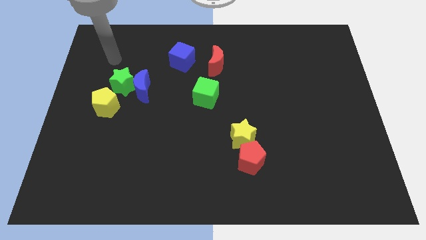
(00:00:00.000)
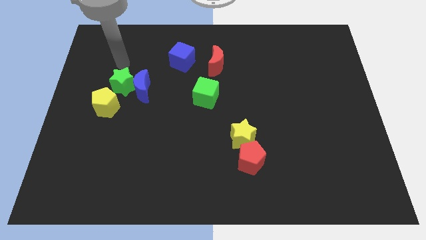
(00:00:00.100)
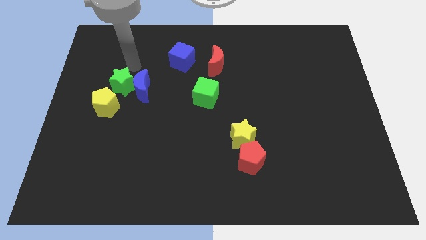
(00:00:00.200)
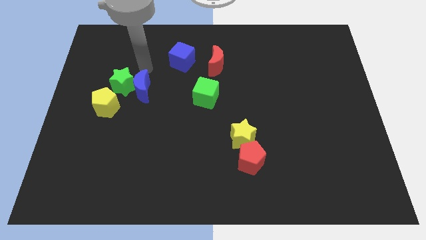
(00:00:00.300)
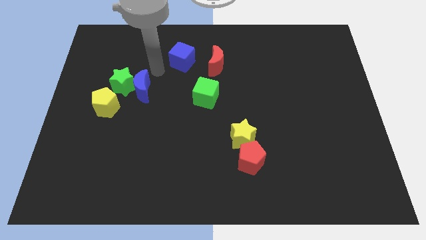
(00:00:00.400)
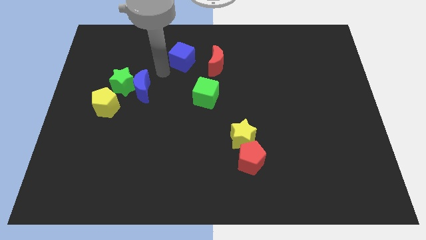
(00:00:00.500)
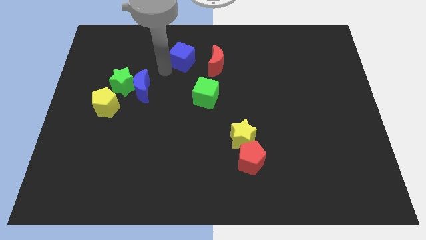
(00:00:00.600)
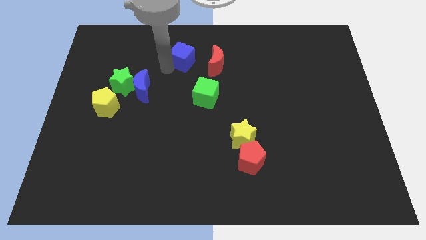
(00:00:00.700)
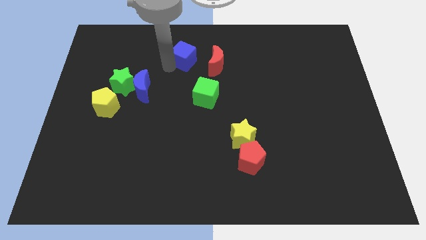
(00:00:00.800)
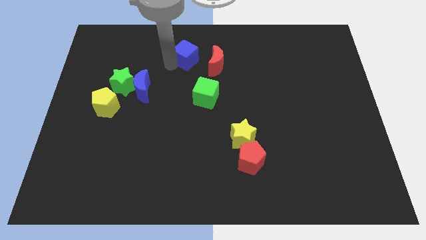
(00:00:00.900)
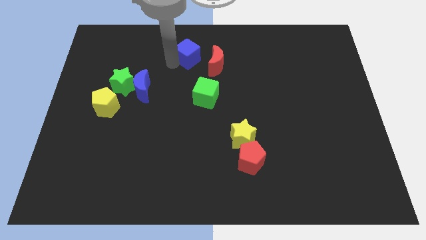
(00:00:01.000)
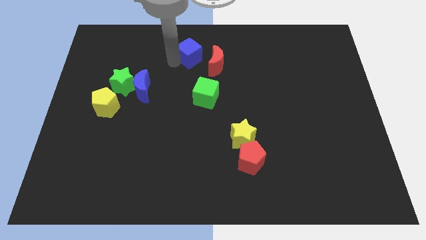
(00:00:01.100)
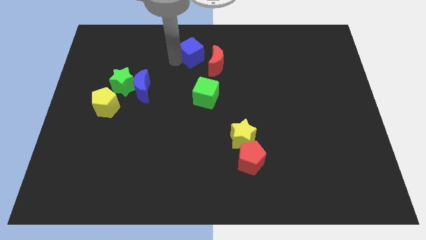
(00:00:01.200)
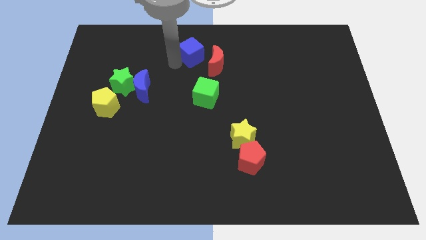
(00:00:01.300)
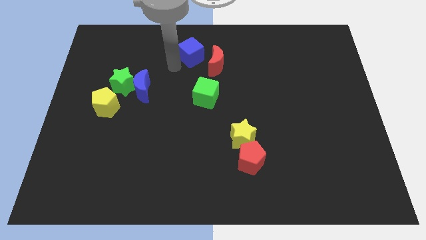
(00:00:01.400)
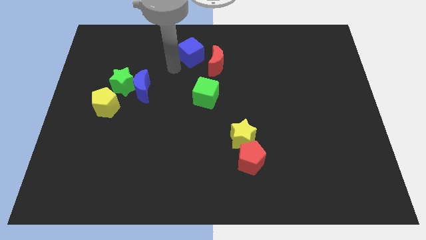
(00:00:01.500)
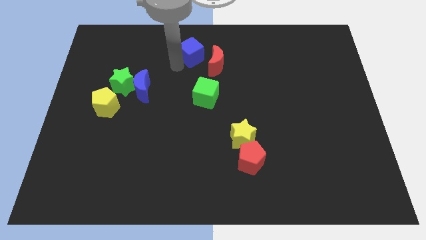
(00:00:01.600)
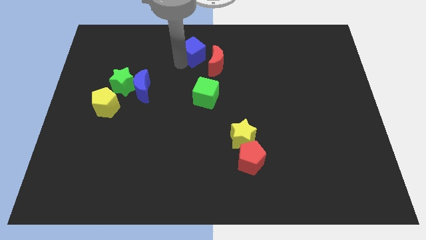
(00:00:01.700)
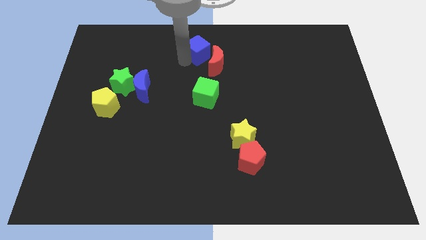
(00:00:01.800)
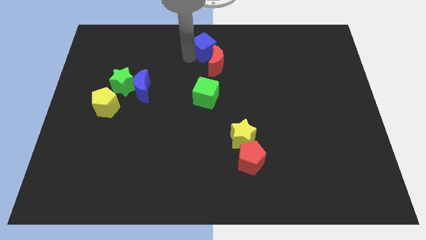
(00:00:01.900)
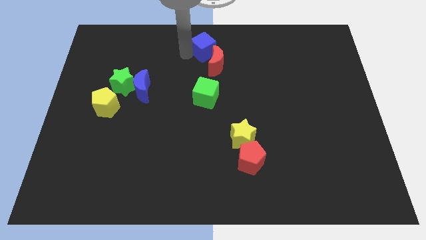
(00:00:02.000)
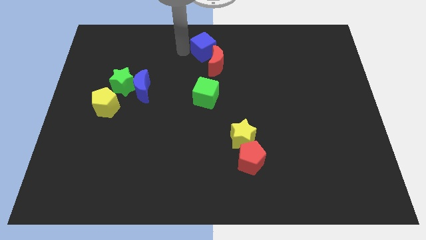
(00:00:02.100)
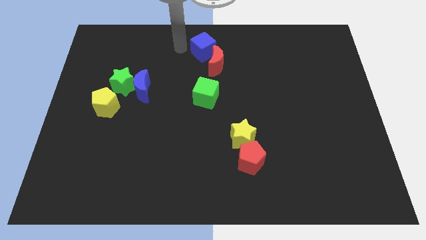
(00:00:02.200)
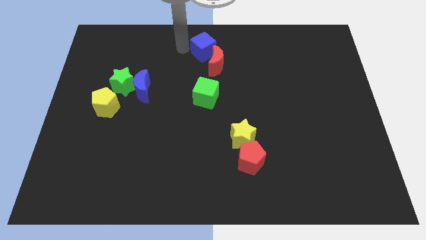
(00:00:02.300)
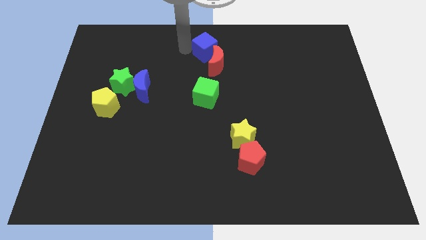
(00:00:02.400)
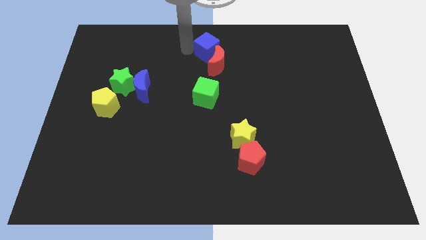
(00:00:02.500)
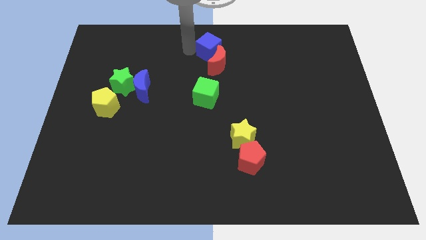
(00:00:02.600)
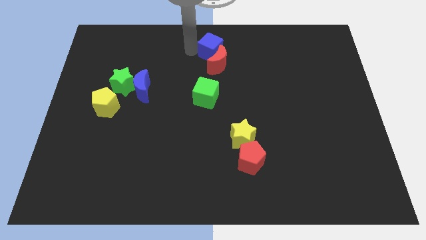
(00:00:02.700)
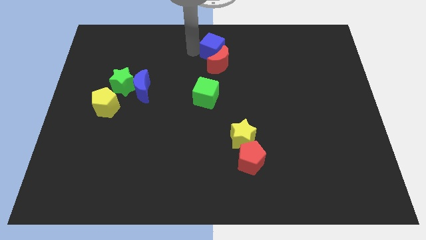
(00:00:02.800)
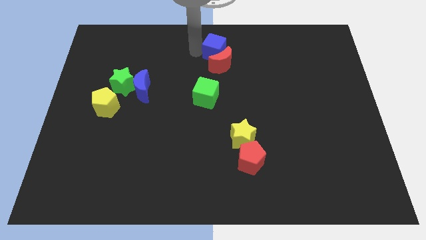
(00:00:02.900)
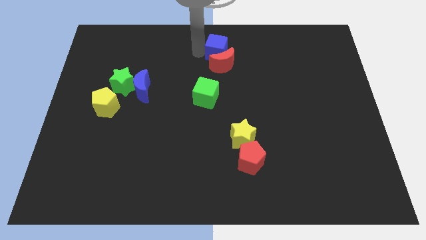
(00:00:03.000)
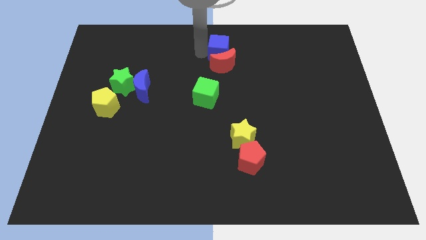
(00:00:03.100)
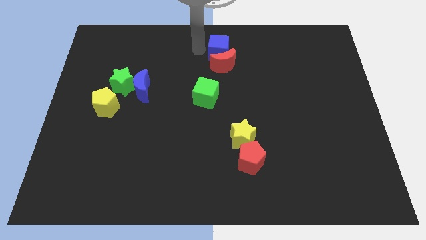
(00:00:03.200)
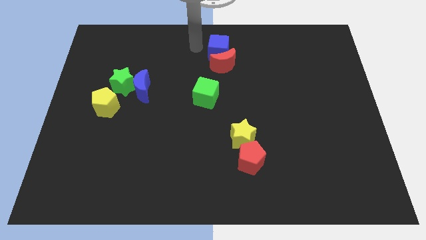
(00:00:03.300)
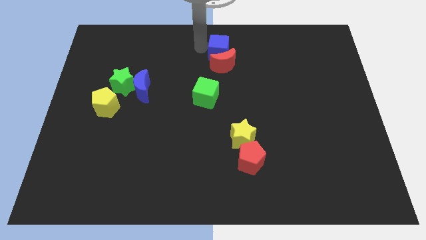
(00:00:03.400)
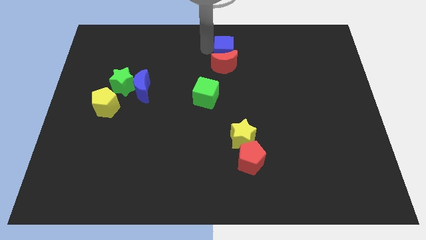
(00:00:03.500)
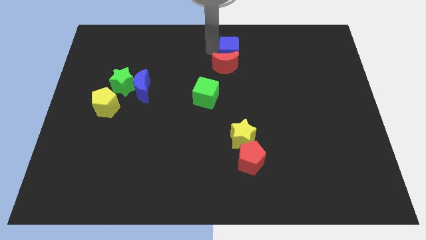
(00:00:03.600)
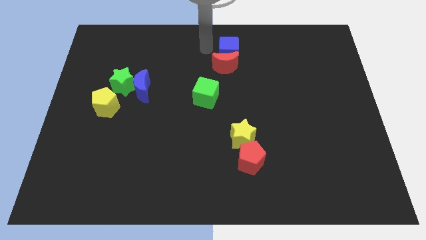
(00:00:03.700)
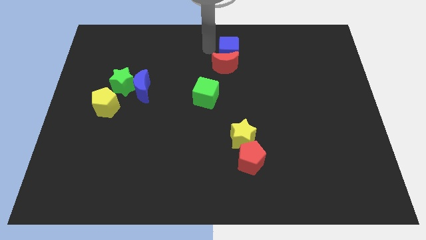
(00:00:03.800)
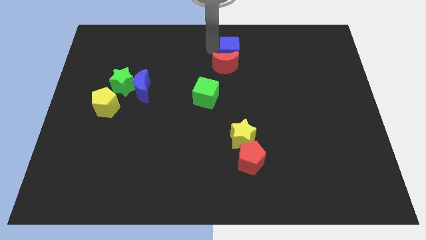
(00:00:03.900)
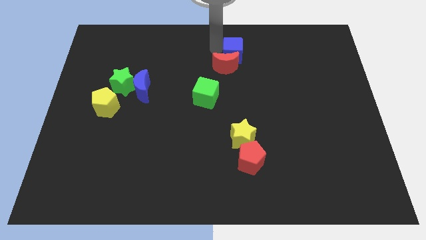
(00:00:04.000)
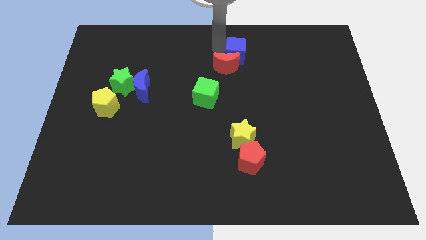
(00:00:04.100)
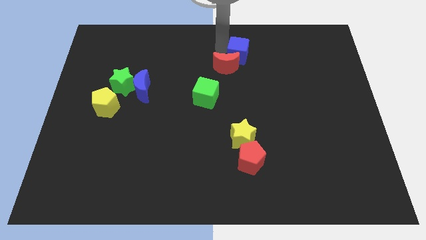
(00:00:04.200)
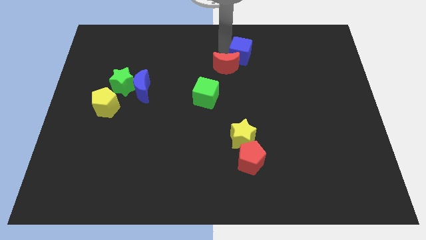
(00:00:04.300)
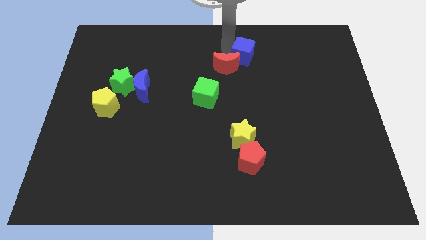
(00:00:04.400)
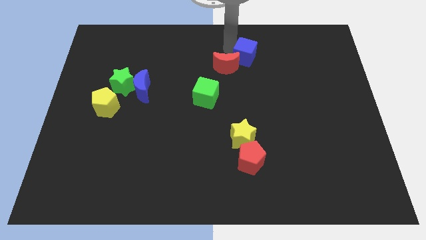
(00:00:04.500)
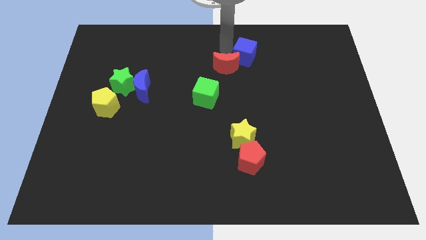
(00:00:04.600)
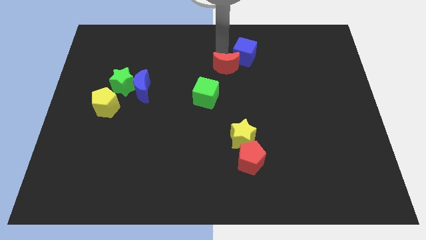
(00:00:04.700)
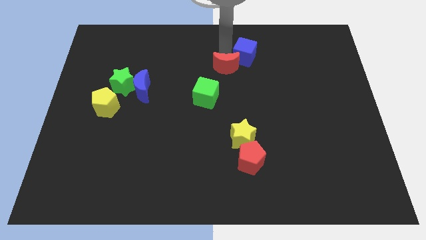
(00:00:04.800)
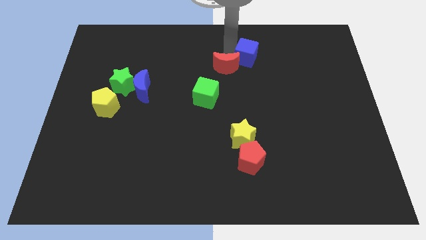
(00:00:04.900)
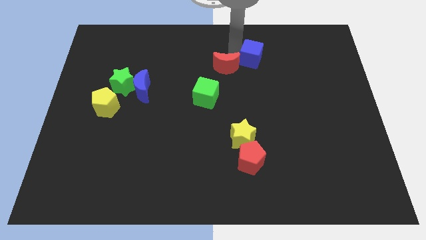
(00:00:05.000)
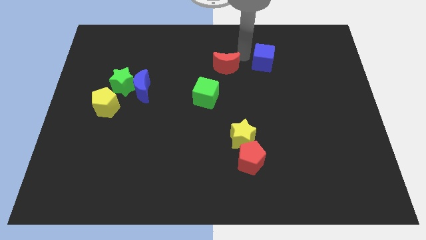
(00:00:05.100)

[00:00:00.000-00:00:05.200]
push the blue cube to the right

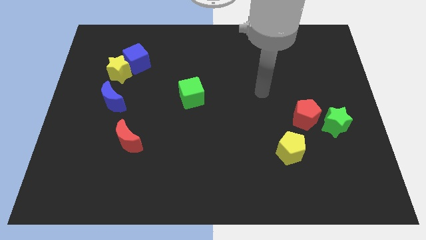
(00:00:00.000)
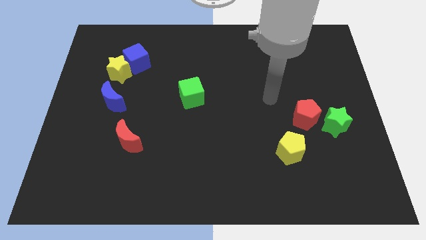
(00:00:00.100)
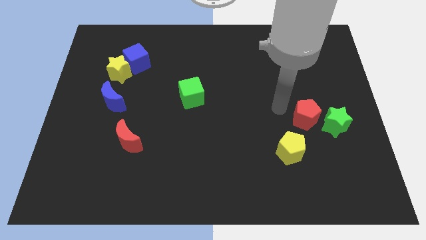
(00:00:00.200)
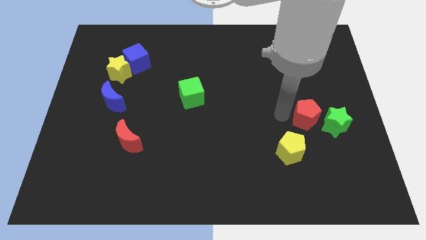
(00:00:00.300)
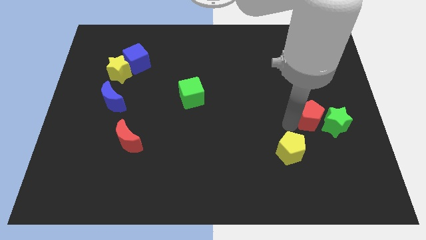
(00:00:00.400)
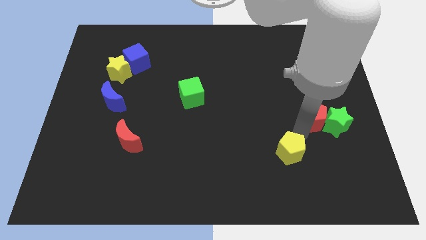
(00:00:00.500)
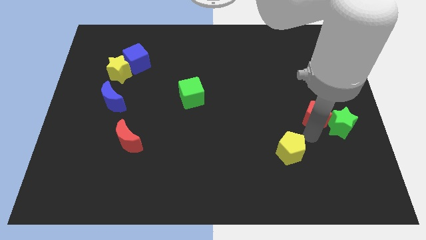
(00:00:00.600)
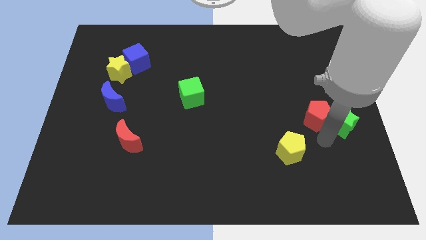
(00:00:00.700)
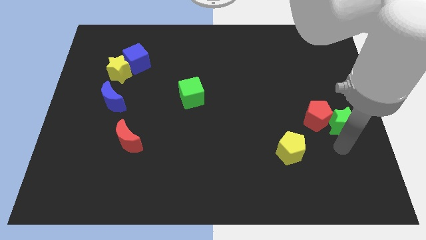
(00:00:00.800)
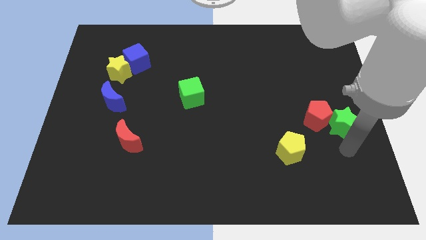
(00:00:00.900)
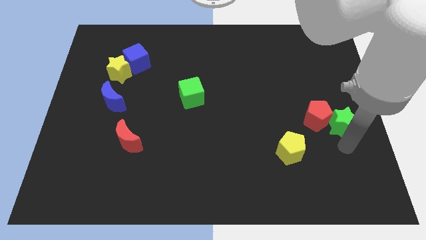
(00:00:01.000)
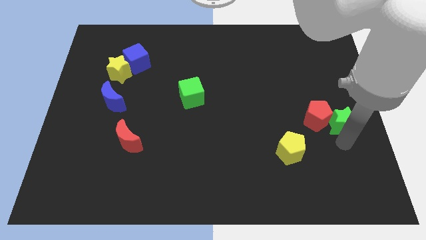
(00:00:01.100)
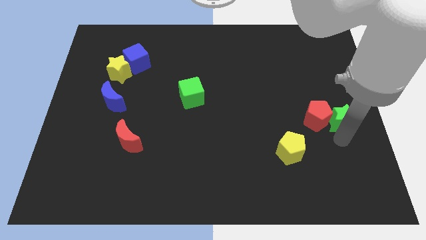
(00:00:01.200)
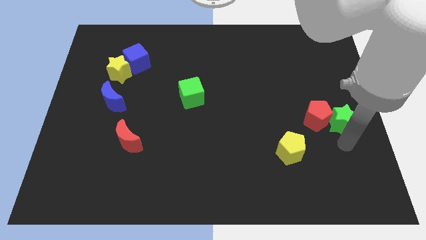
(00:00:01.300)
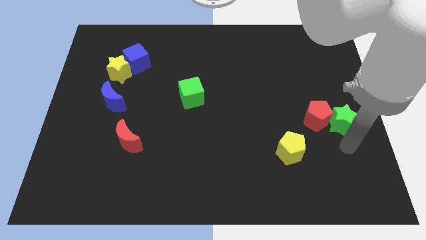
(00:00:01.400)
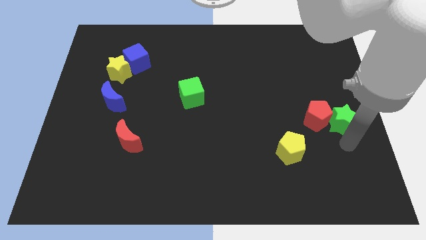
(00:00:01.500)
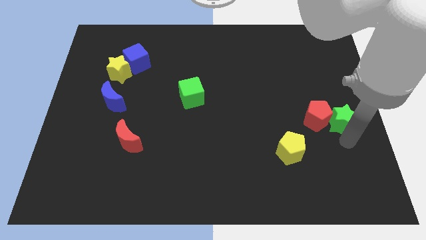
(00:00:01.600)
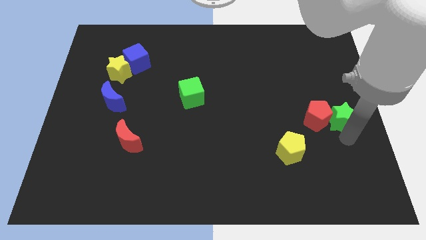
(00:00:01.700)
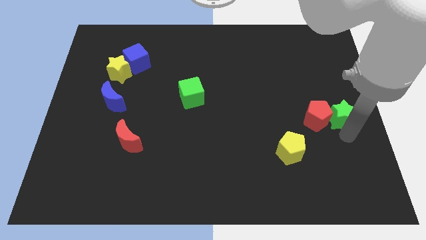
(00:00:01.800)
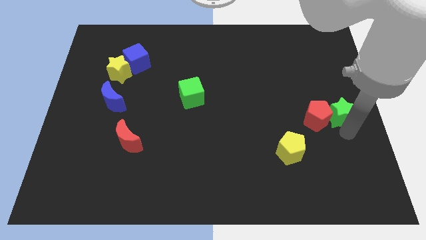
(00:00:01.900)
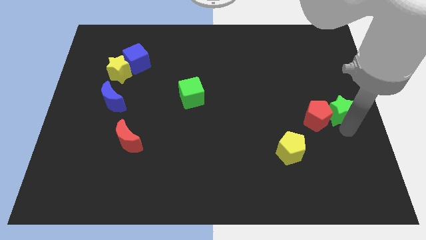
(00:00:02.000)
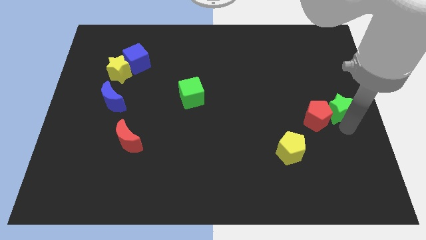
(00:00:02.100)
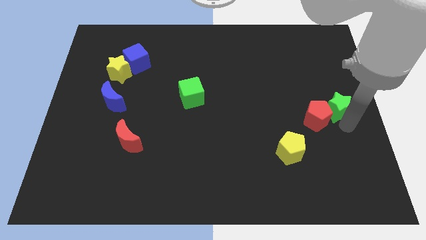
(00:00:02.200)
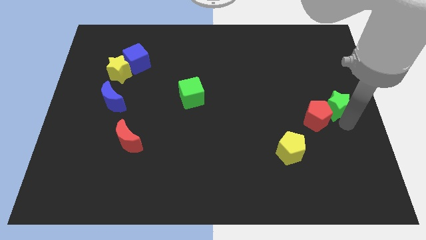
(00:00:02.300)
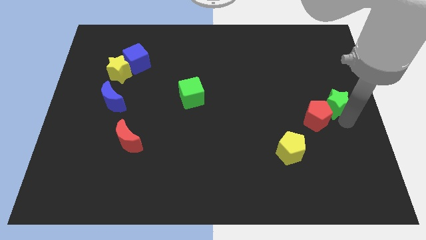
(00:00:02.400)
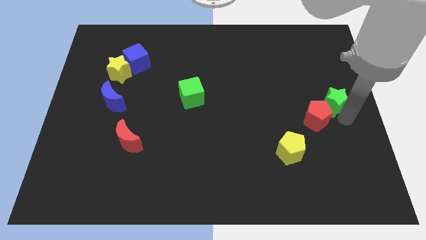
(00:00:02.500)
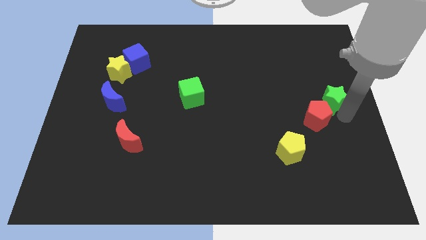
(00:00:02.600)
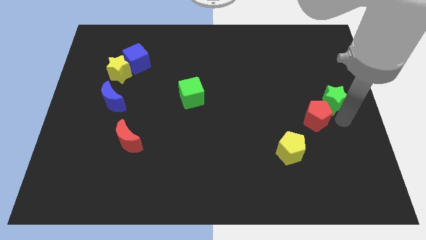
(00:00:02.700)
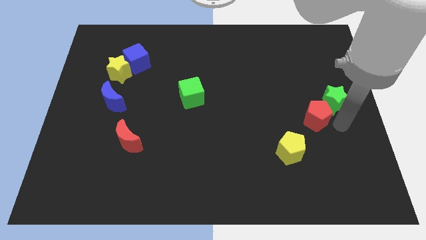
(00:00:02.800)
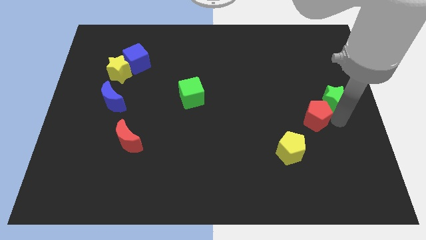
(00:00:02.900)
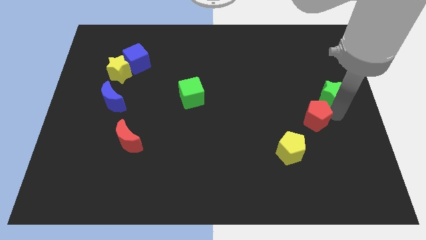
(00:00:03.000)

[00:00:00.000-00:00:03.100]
push the green star up a bit
